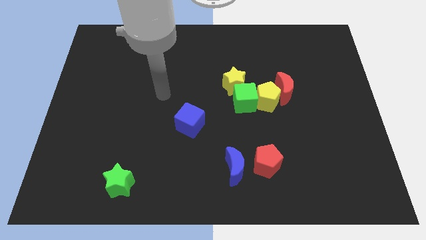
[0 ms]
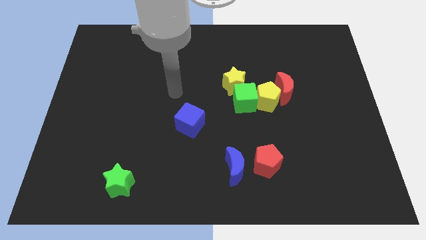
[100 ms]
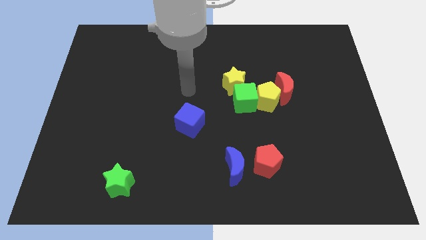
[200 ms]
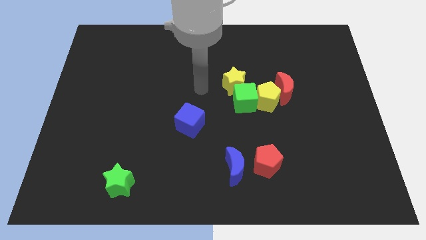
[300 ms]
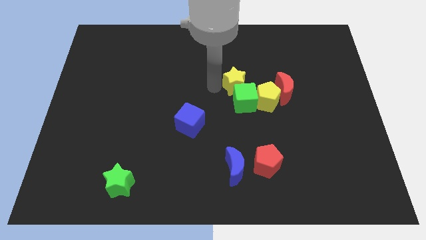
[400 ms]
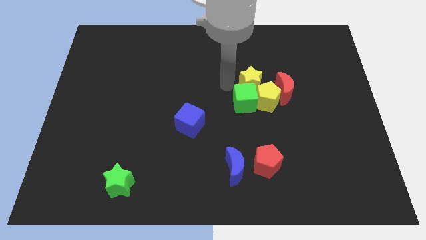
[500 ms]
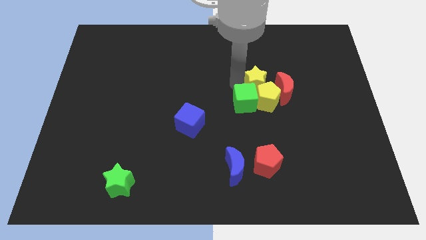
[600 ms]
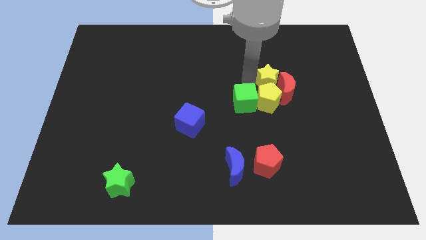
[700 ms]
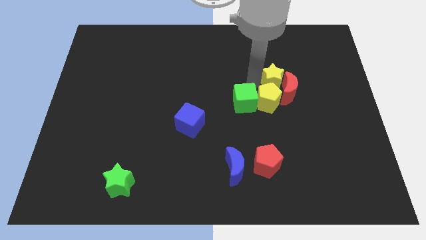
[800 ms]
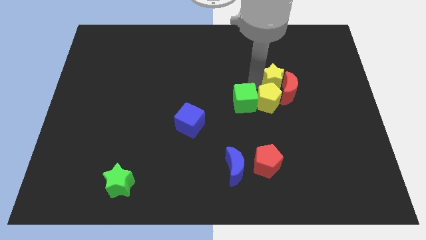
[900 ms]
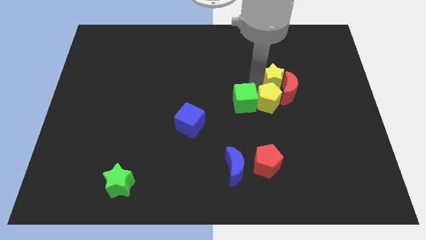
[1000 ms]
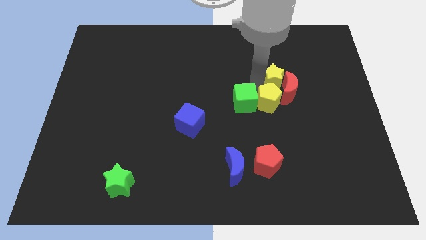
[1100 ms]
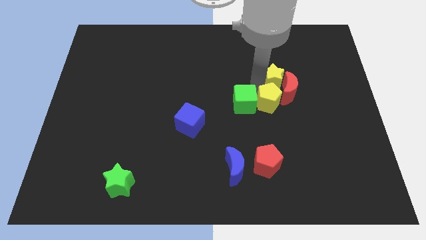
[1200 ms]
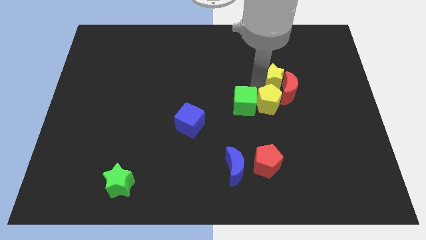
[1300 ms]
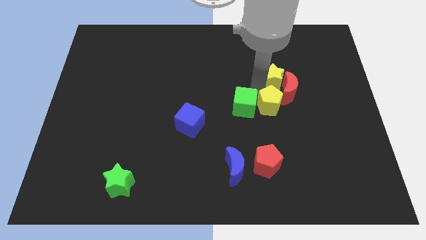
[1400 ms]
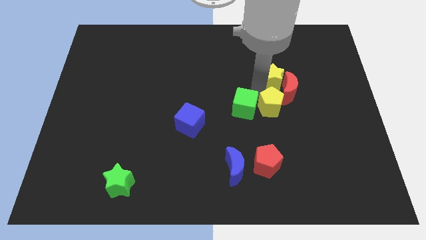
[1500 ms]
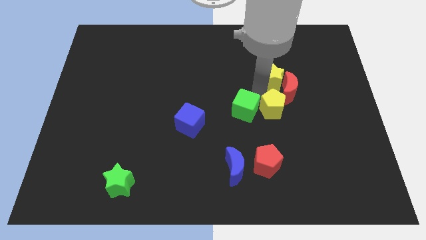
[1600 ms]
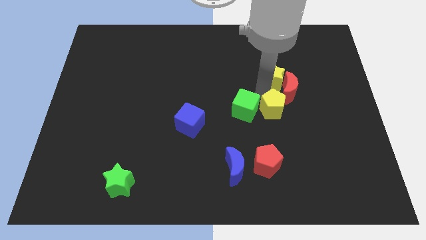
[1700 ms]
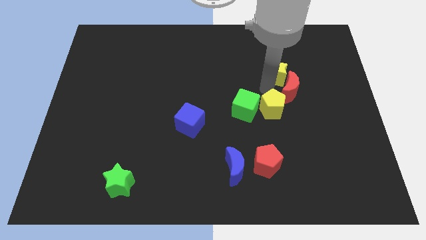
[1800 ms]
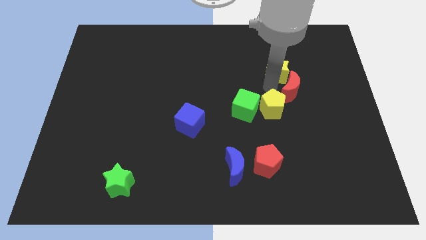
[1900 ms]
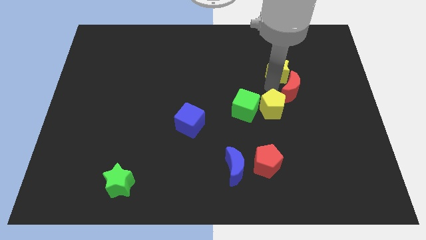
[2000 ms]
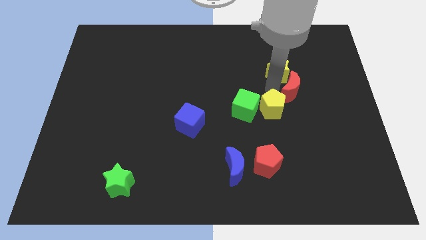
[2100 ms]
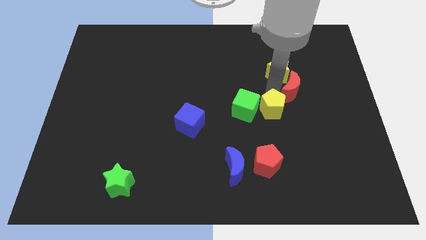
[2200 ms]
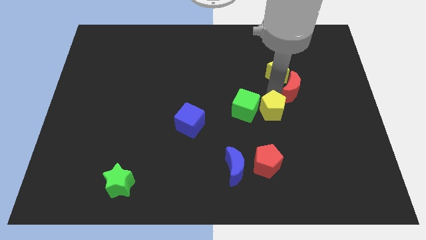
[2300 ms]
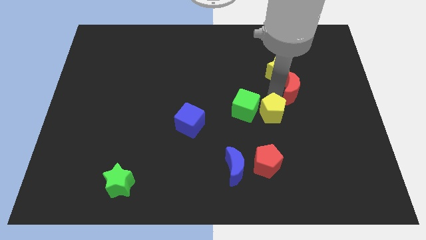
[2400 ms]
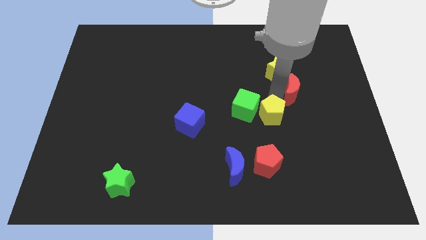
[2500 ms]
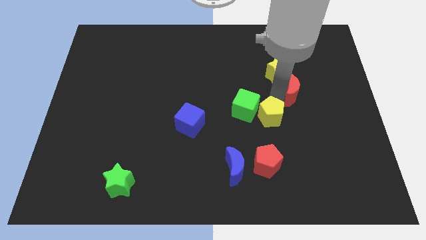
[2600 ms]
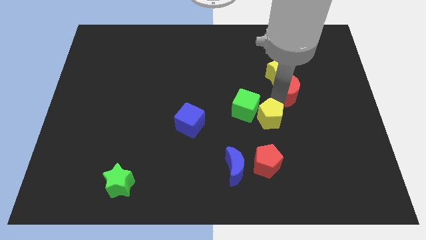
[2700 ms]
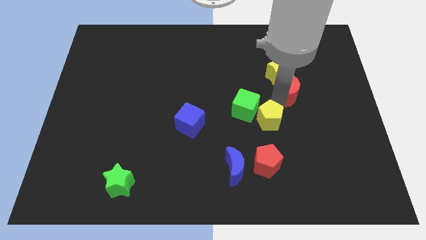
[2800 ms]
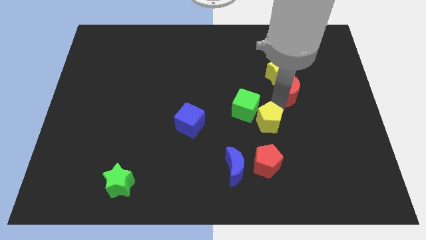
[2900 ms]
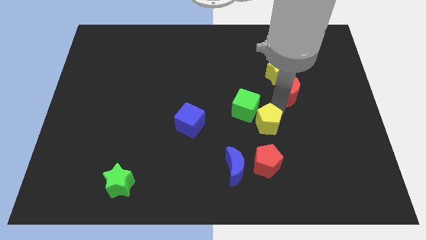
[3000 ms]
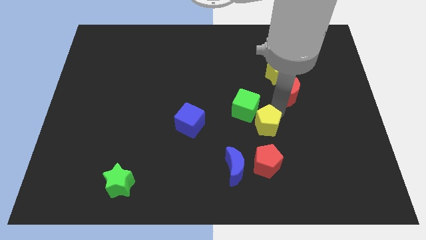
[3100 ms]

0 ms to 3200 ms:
pull the yellow pentagon apart from the green cube, red moon, and yellow star

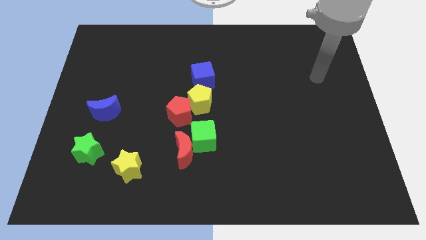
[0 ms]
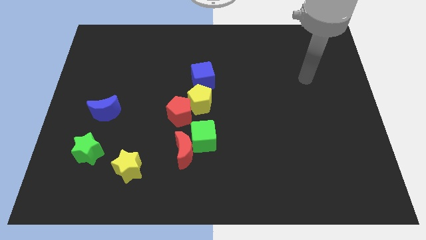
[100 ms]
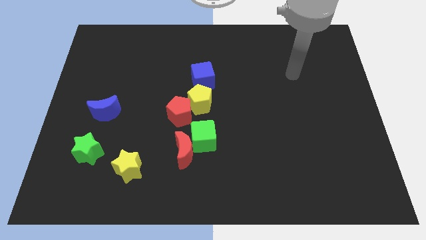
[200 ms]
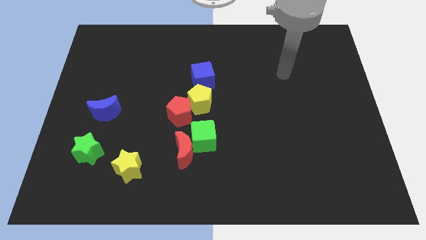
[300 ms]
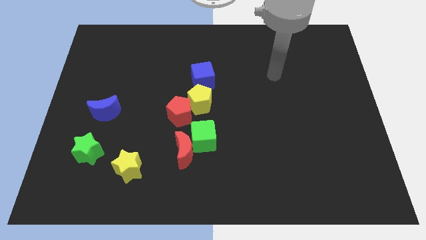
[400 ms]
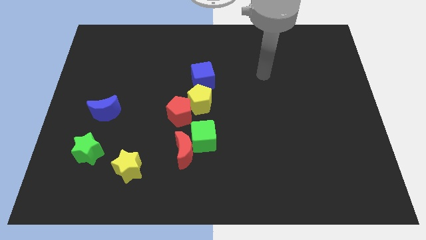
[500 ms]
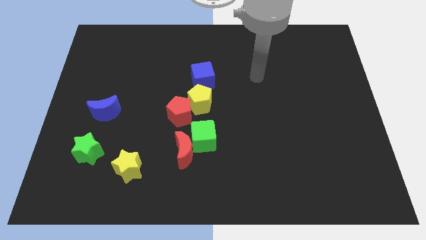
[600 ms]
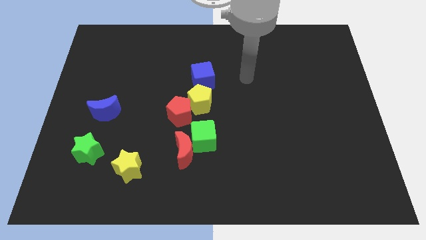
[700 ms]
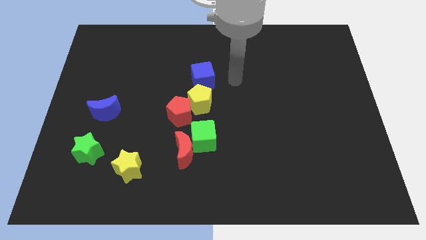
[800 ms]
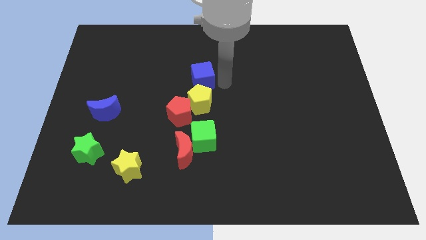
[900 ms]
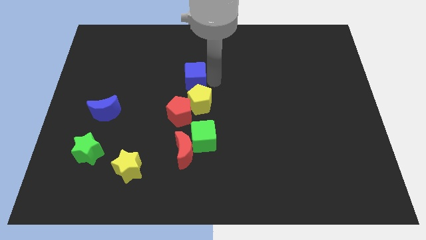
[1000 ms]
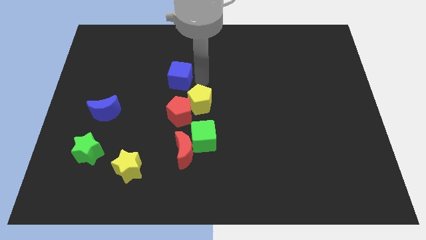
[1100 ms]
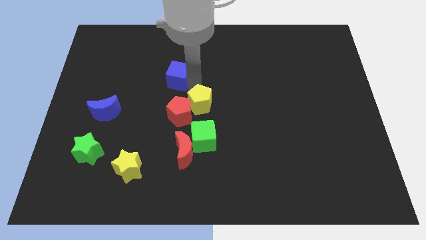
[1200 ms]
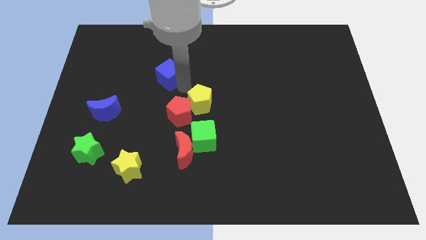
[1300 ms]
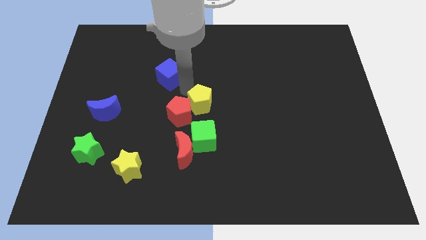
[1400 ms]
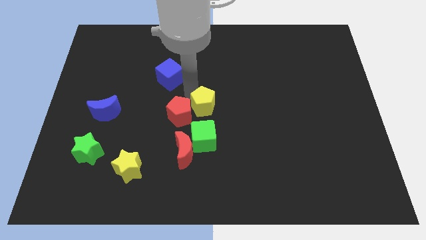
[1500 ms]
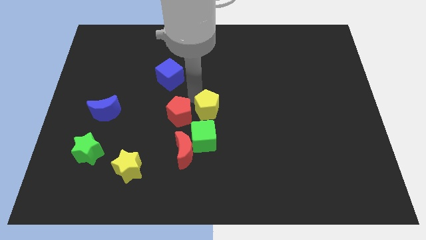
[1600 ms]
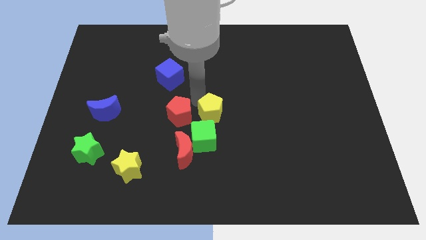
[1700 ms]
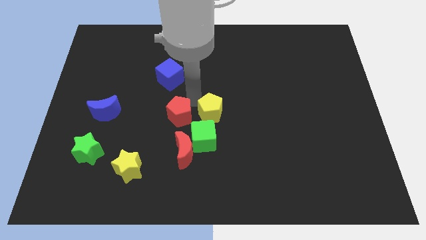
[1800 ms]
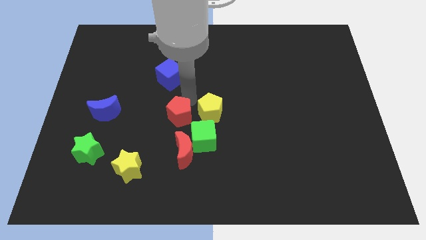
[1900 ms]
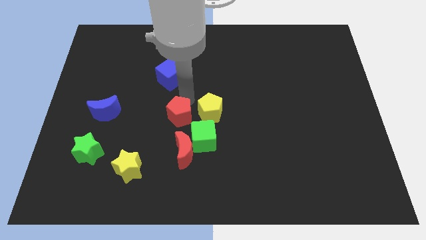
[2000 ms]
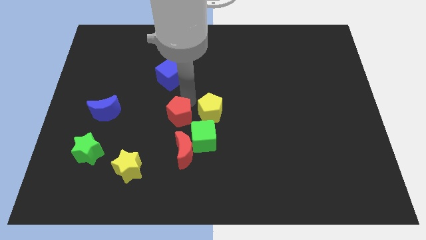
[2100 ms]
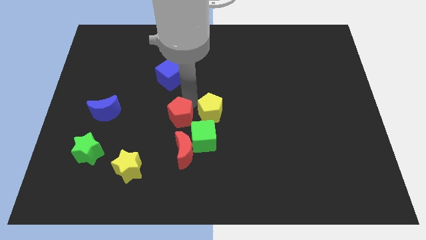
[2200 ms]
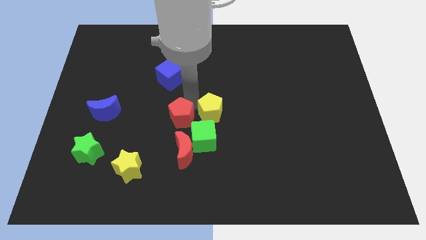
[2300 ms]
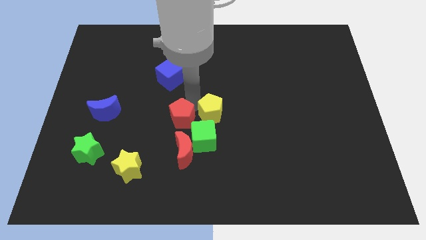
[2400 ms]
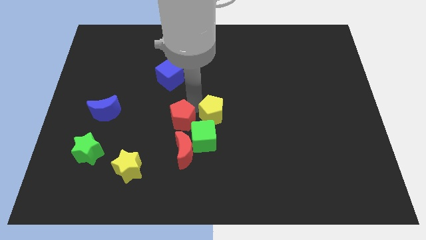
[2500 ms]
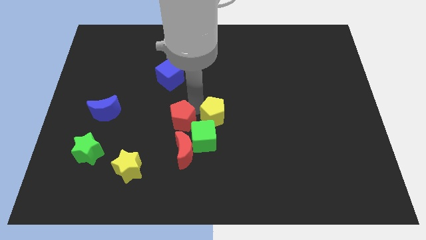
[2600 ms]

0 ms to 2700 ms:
pull the yellow pentagon apart from the red pentagon and blue cube

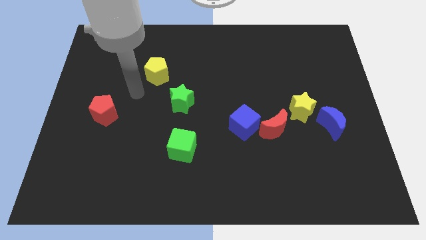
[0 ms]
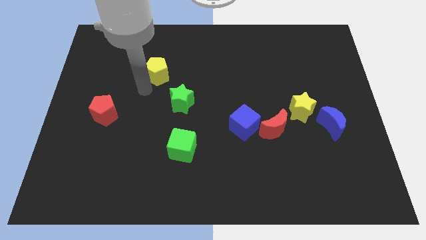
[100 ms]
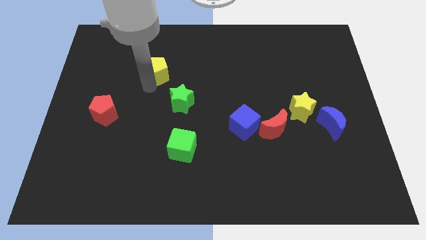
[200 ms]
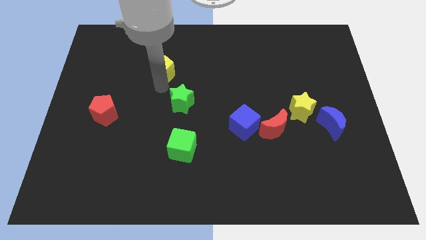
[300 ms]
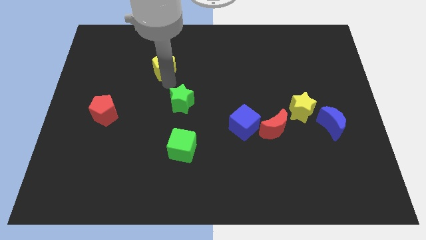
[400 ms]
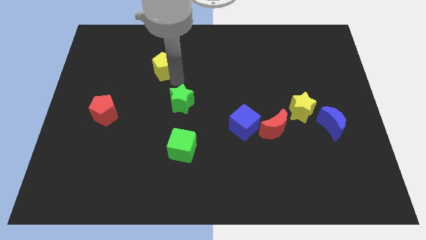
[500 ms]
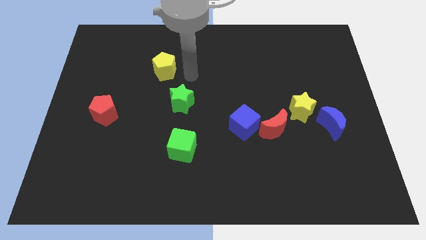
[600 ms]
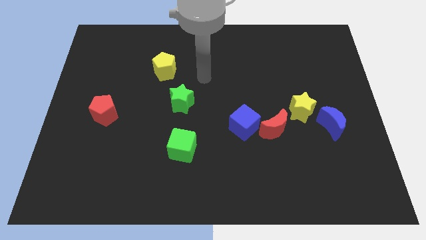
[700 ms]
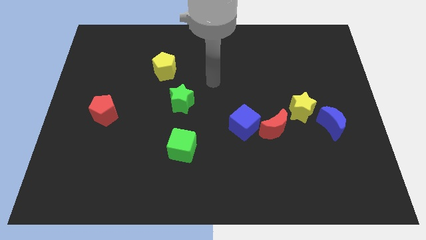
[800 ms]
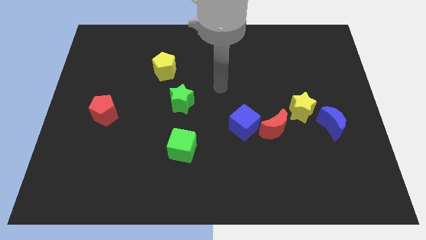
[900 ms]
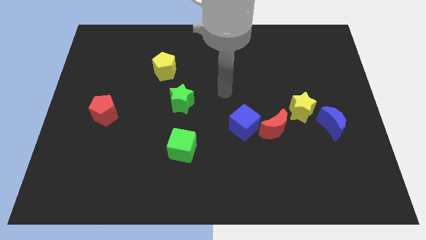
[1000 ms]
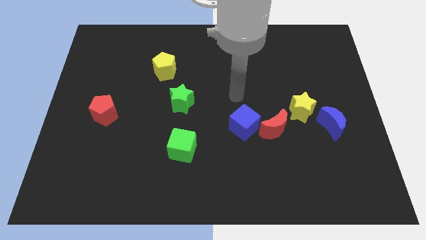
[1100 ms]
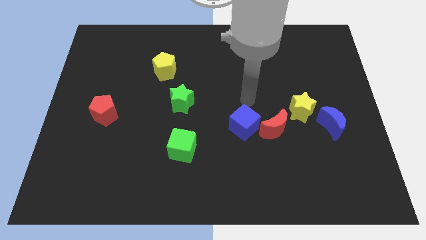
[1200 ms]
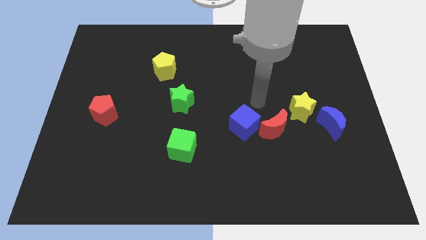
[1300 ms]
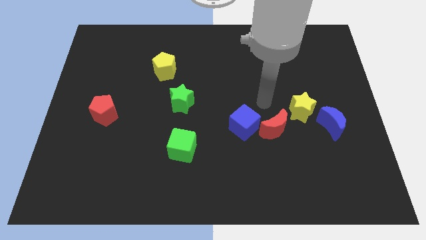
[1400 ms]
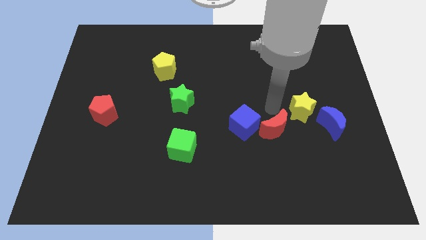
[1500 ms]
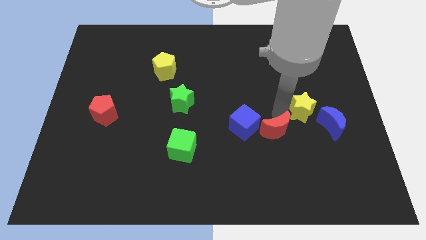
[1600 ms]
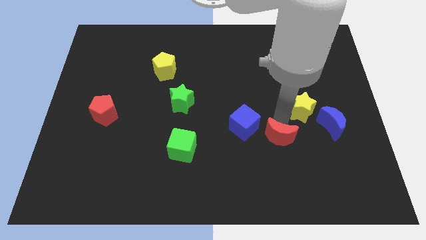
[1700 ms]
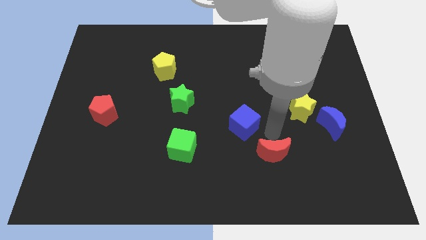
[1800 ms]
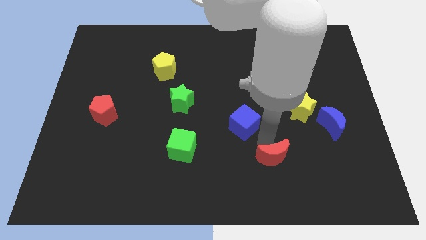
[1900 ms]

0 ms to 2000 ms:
move the blue cube away from the red moon

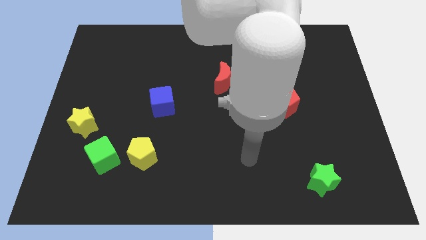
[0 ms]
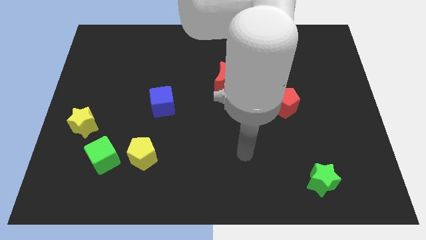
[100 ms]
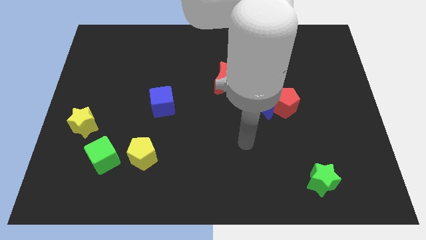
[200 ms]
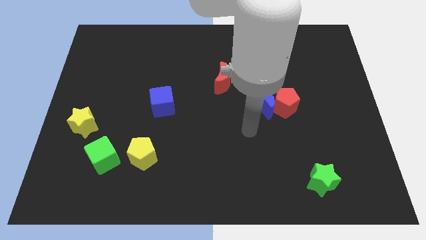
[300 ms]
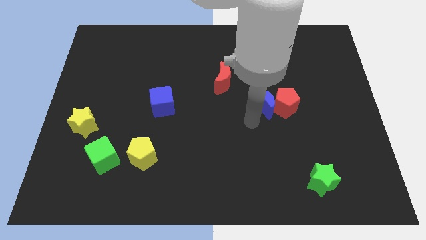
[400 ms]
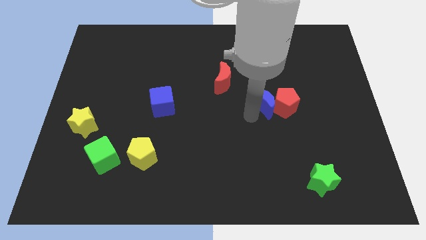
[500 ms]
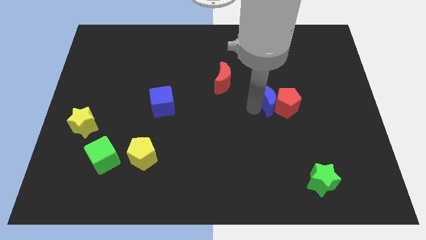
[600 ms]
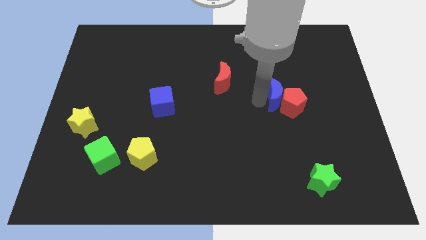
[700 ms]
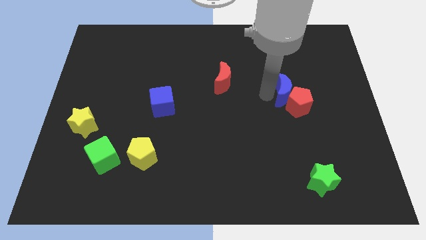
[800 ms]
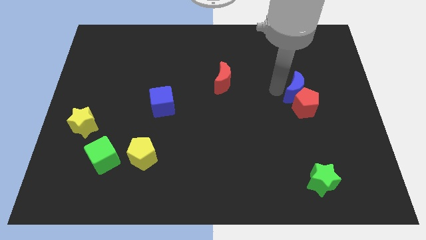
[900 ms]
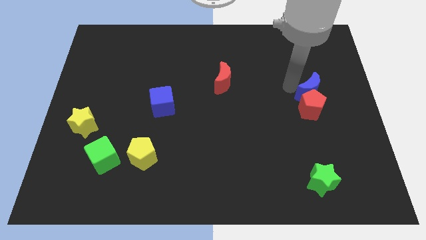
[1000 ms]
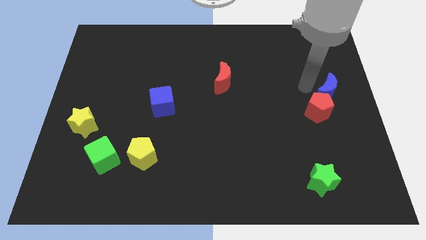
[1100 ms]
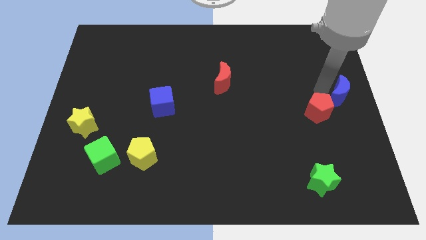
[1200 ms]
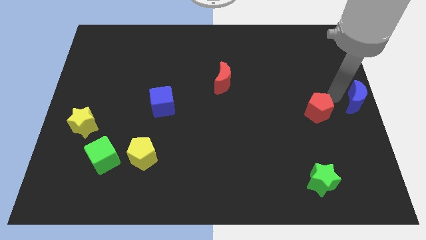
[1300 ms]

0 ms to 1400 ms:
separate the red pentagon from the blue moon

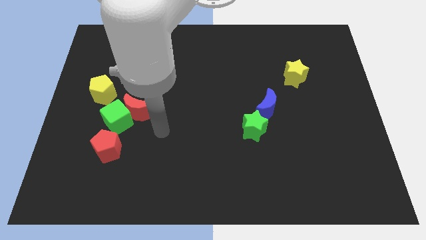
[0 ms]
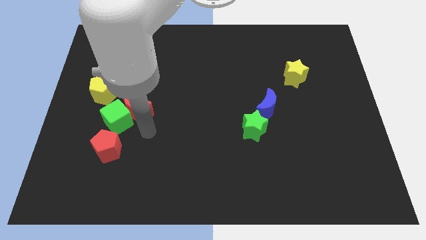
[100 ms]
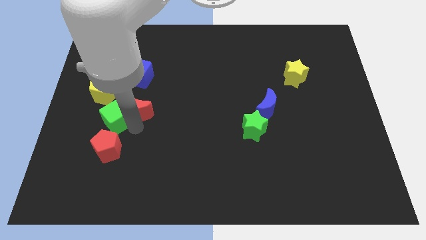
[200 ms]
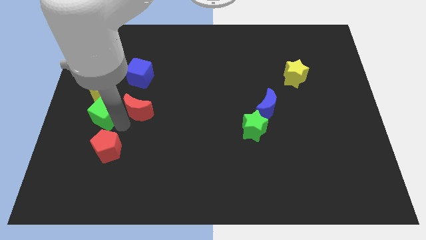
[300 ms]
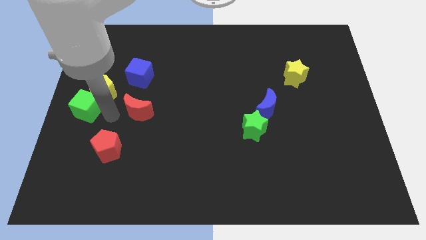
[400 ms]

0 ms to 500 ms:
separate the red moon from the green cube
